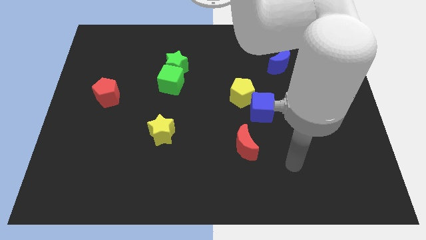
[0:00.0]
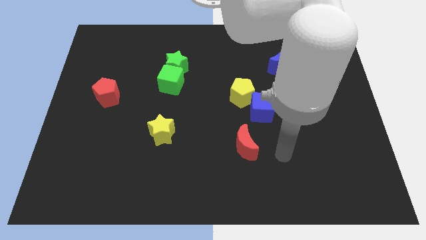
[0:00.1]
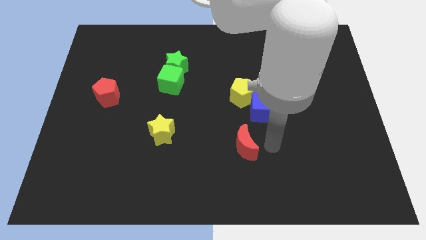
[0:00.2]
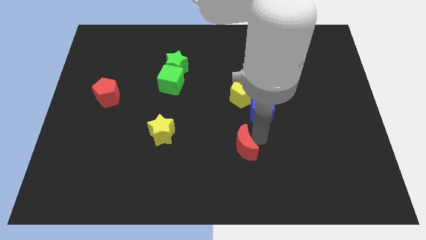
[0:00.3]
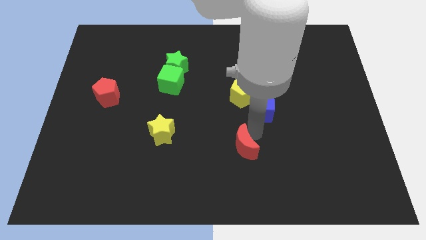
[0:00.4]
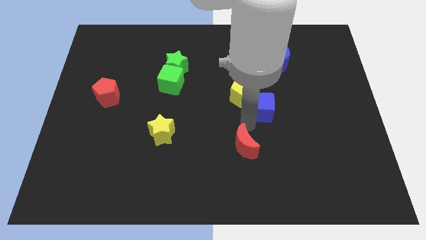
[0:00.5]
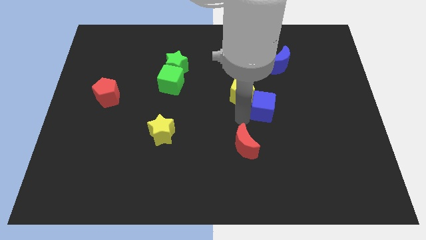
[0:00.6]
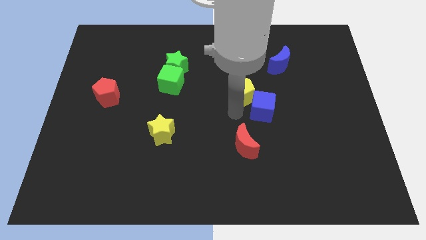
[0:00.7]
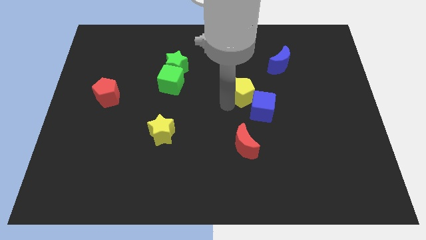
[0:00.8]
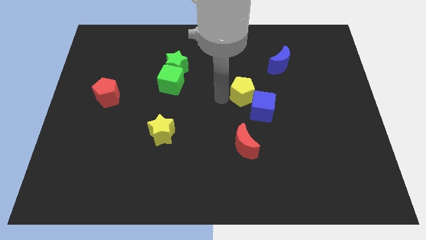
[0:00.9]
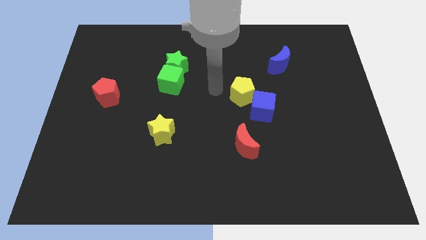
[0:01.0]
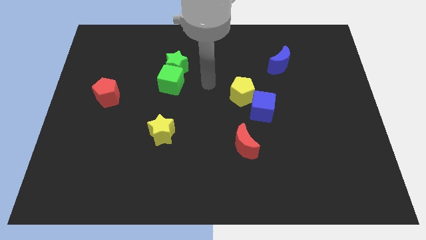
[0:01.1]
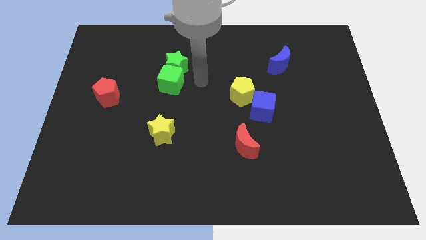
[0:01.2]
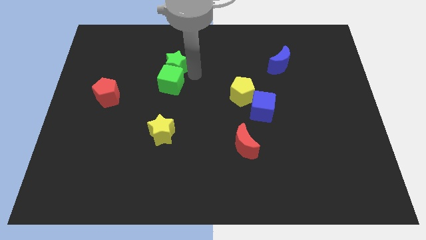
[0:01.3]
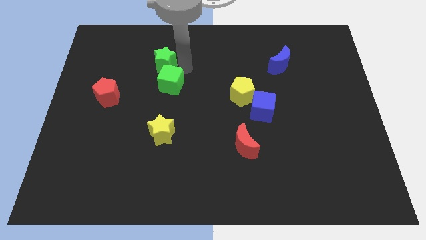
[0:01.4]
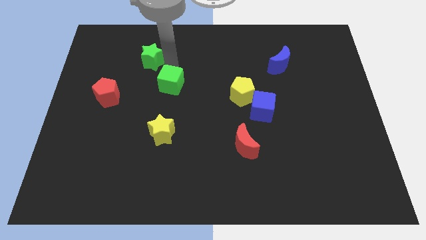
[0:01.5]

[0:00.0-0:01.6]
separate the green cube from the green star

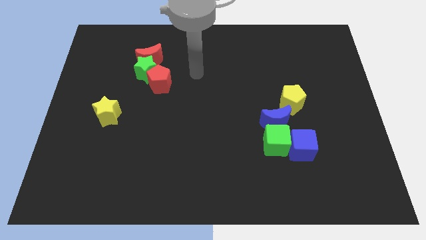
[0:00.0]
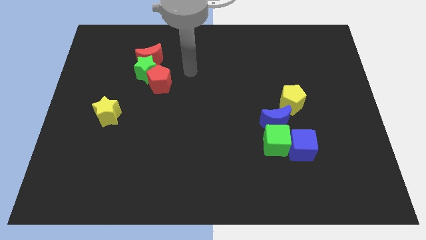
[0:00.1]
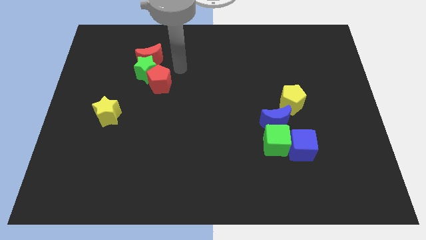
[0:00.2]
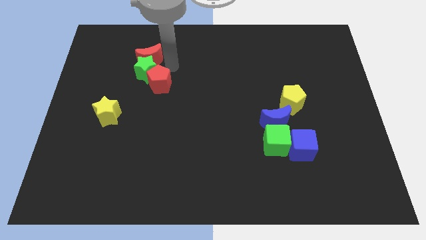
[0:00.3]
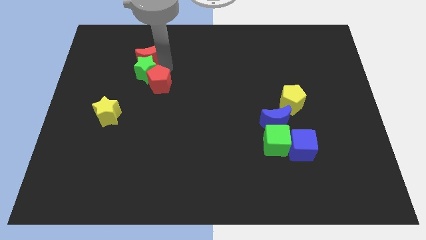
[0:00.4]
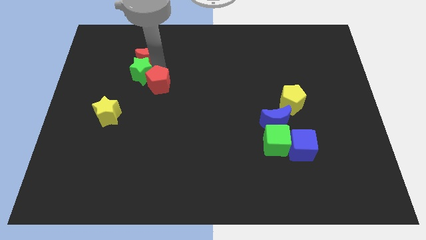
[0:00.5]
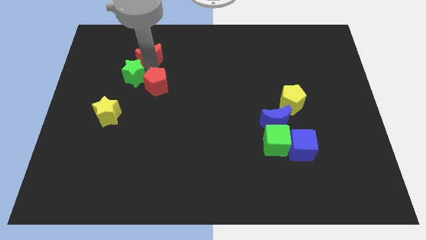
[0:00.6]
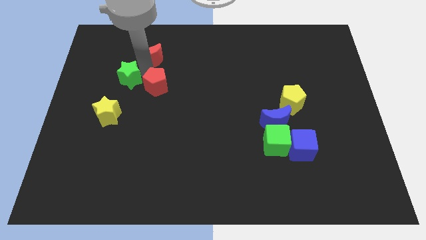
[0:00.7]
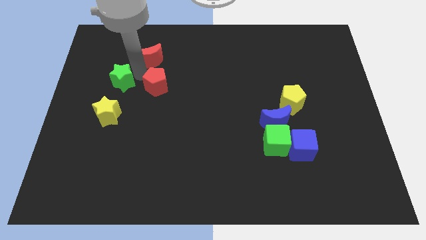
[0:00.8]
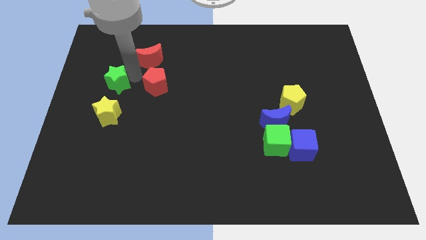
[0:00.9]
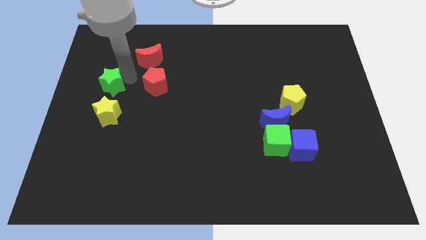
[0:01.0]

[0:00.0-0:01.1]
move the green star away from the red moon and red pentagon

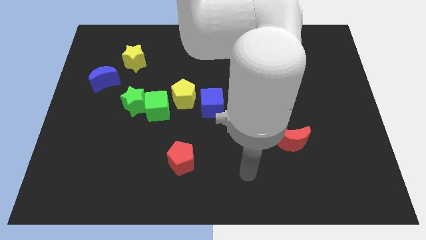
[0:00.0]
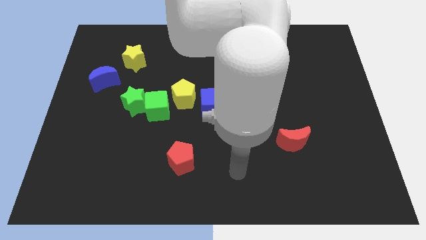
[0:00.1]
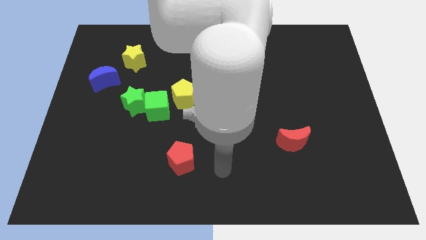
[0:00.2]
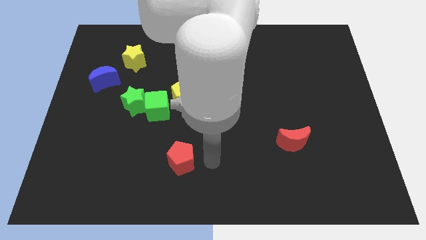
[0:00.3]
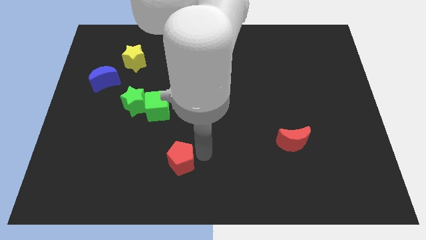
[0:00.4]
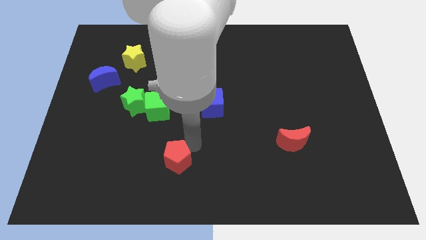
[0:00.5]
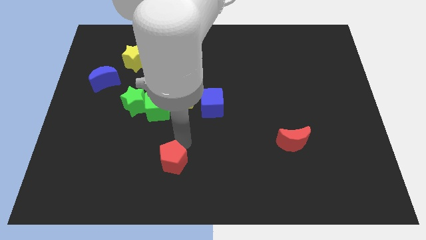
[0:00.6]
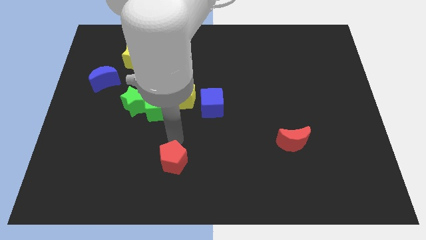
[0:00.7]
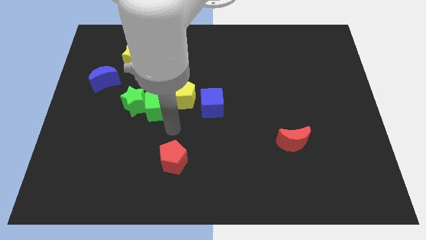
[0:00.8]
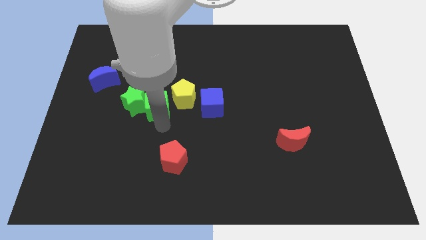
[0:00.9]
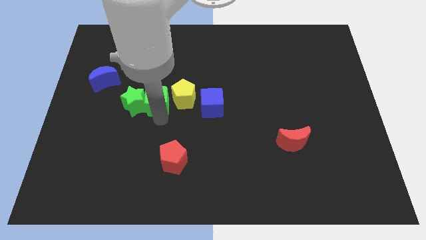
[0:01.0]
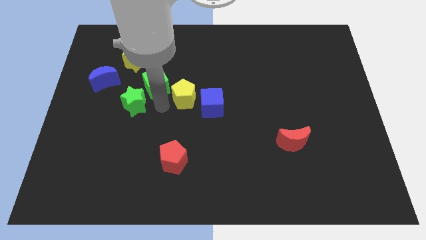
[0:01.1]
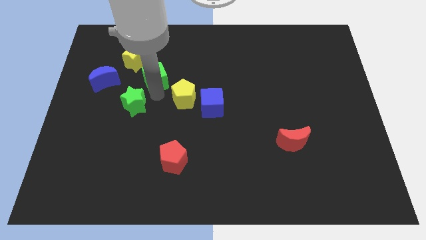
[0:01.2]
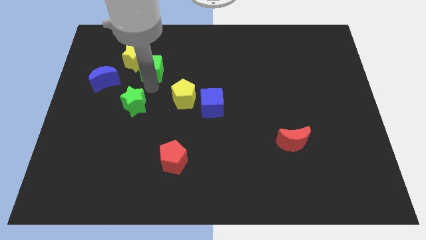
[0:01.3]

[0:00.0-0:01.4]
move the green star away from the green cube

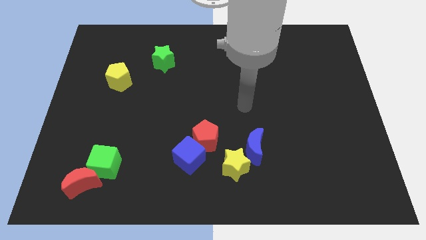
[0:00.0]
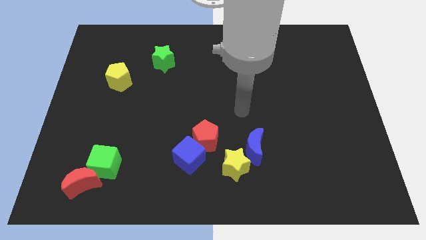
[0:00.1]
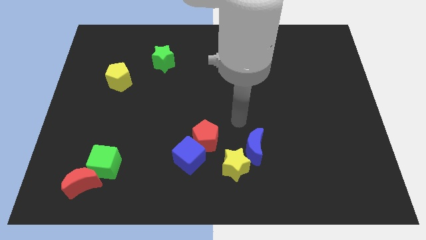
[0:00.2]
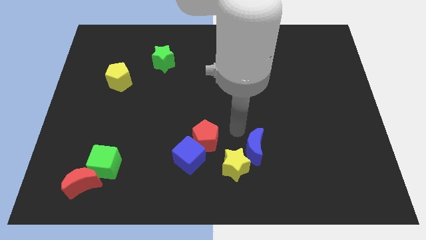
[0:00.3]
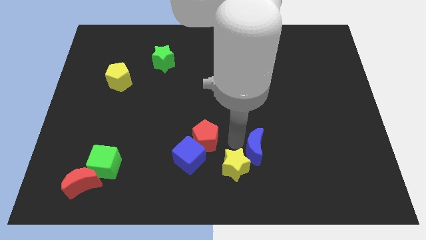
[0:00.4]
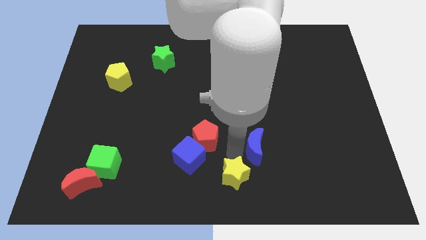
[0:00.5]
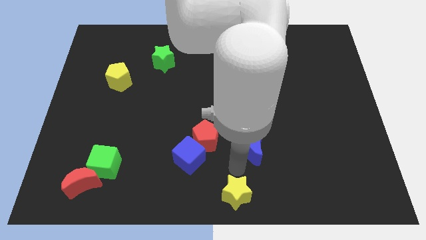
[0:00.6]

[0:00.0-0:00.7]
move the blue moon away from the yellow star

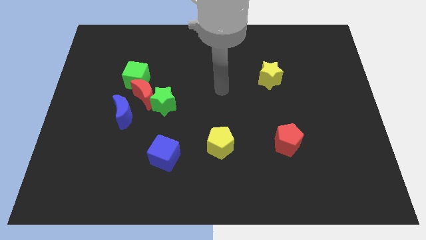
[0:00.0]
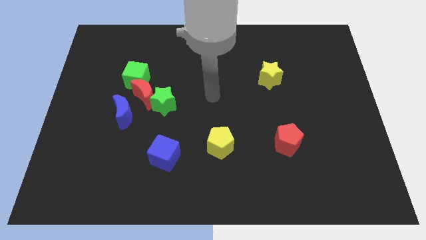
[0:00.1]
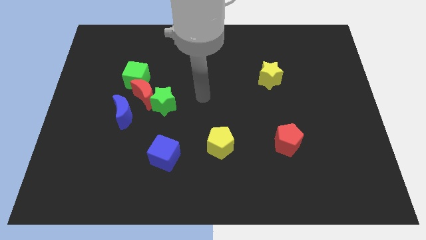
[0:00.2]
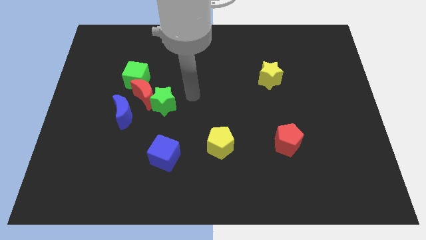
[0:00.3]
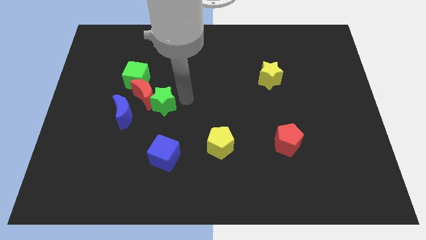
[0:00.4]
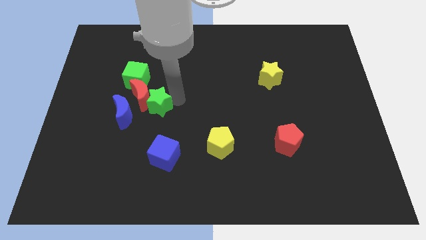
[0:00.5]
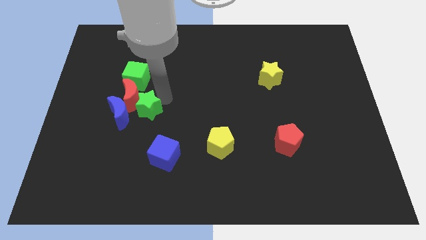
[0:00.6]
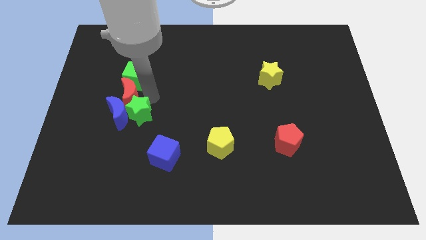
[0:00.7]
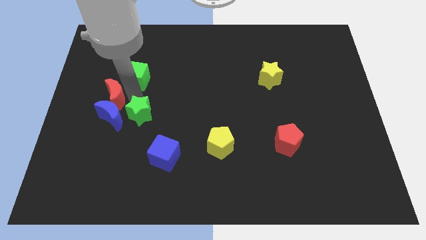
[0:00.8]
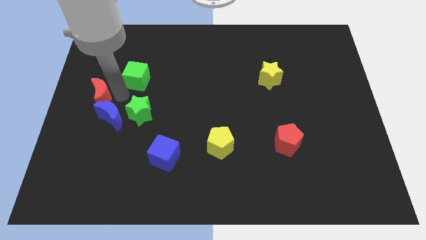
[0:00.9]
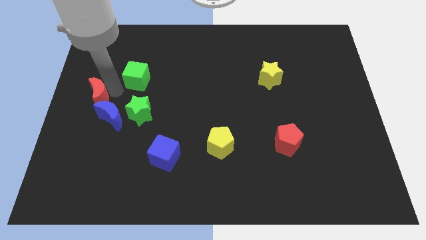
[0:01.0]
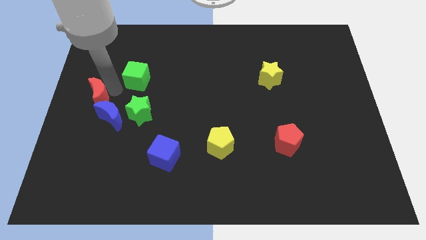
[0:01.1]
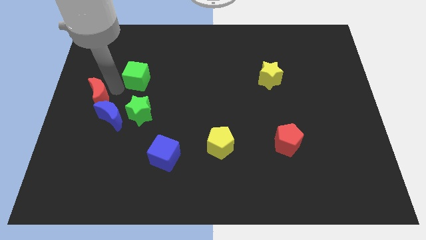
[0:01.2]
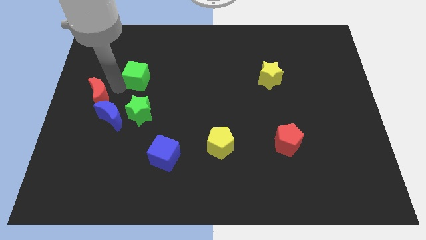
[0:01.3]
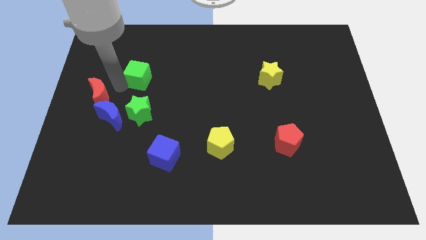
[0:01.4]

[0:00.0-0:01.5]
separate the green cube from the red moon

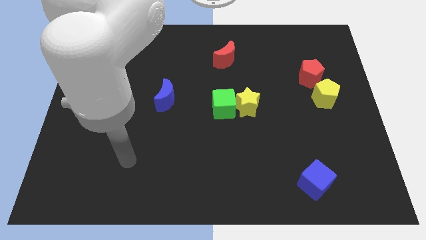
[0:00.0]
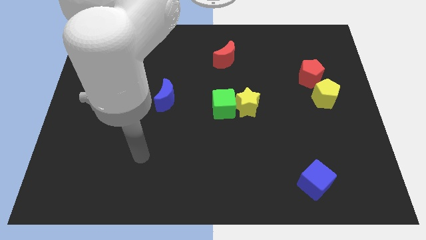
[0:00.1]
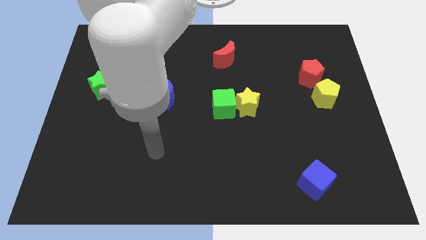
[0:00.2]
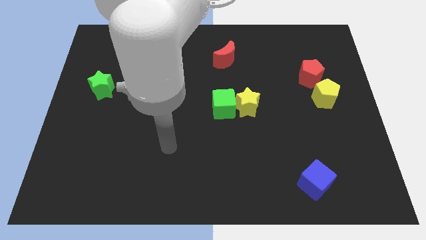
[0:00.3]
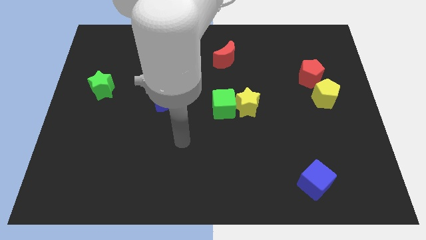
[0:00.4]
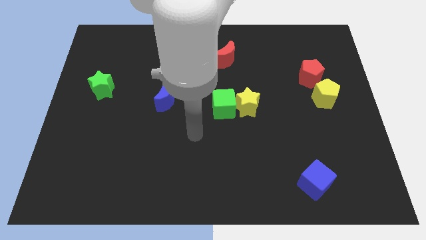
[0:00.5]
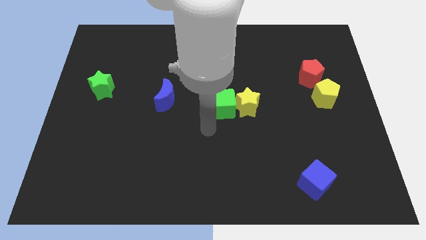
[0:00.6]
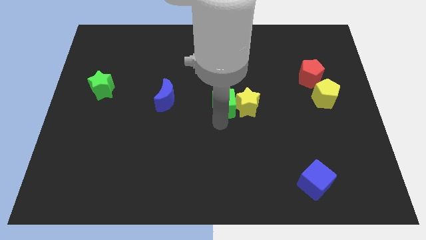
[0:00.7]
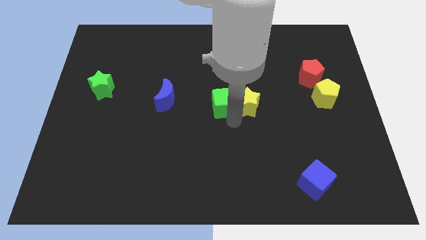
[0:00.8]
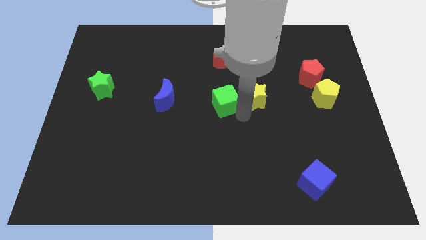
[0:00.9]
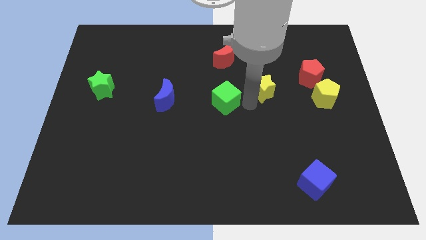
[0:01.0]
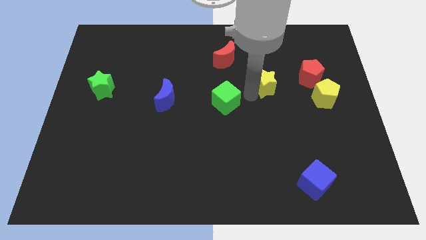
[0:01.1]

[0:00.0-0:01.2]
move the green cube away from the yellow star

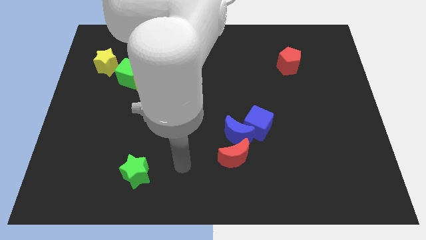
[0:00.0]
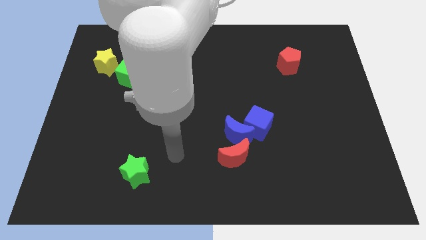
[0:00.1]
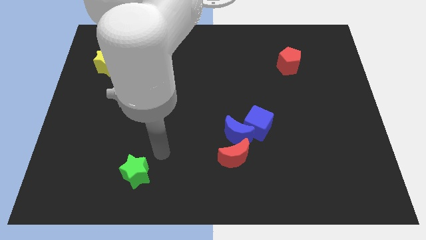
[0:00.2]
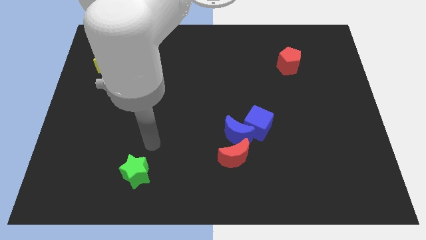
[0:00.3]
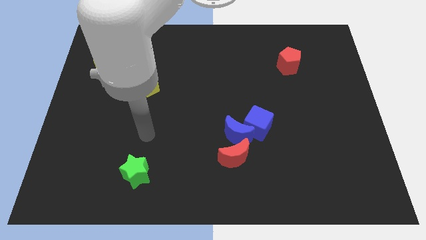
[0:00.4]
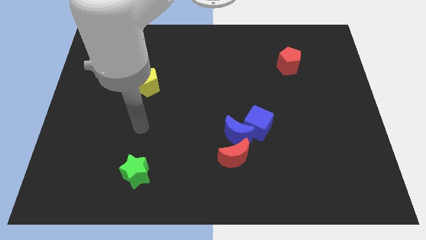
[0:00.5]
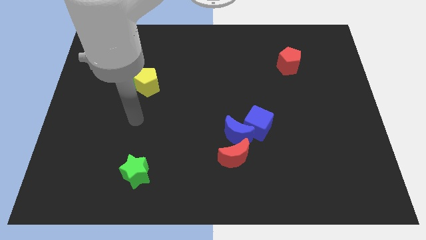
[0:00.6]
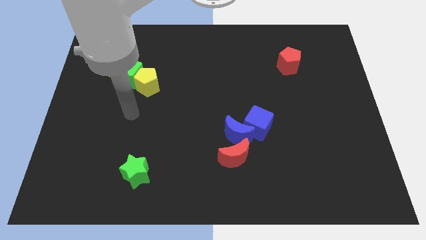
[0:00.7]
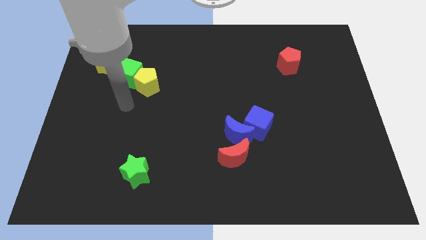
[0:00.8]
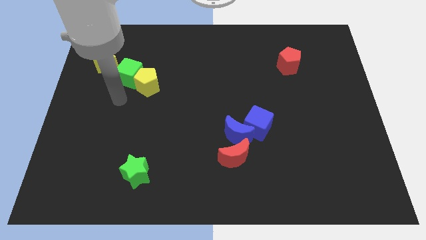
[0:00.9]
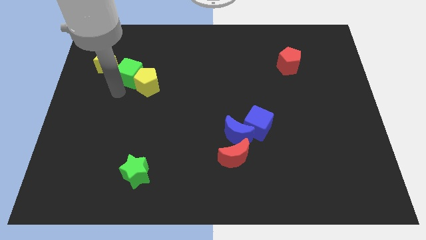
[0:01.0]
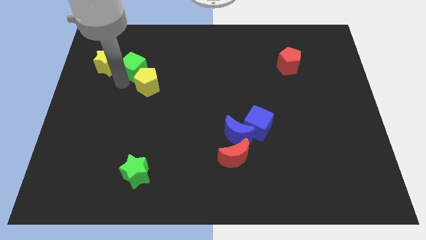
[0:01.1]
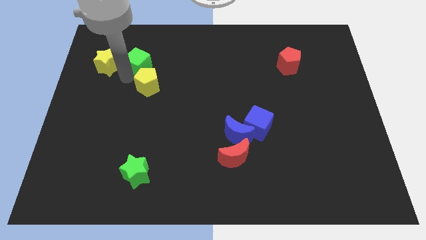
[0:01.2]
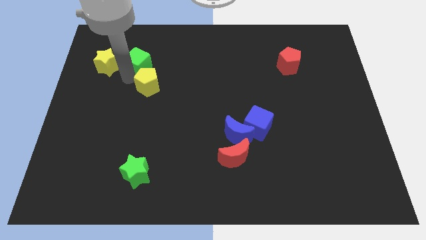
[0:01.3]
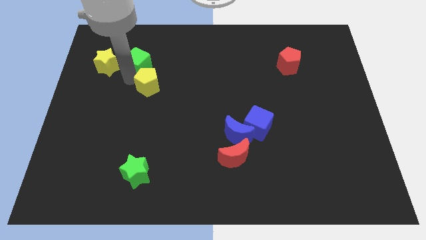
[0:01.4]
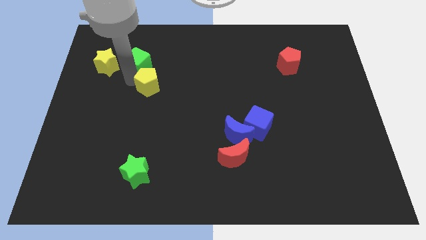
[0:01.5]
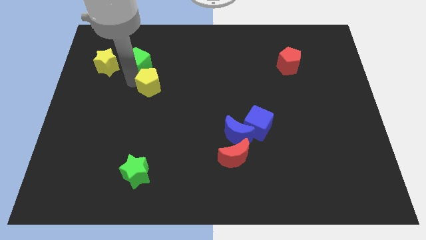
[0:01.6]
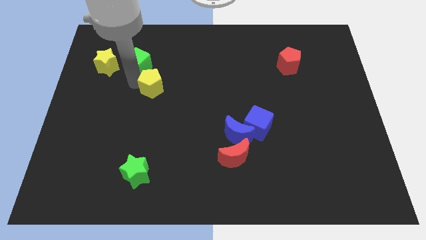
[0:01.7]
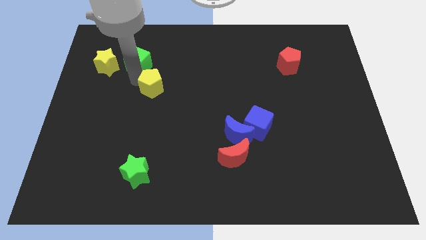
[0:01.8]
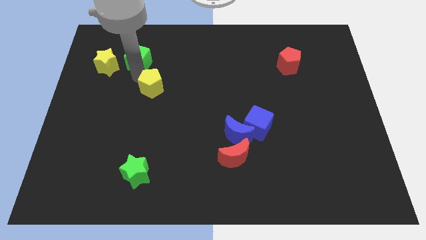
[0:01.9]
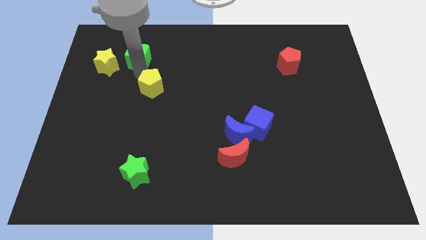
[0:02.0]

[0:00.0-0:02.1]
pull the yellow pentagon apart from the green cube
